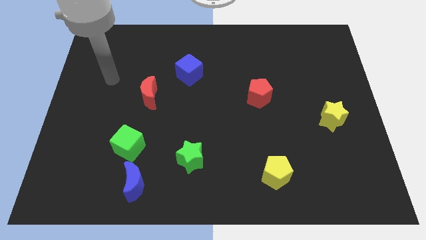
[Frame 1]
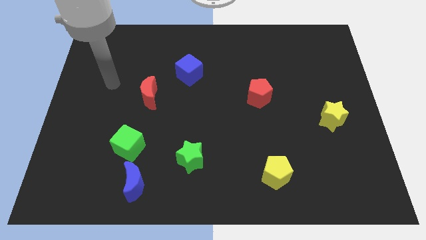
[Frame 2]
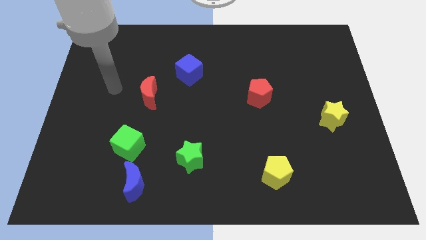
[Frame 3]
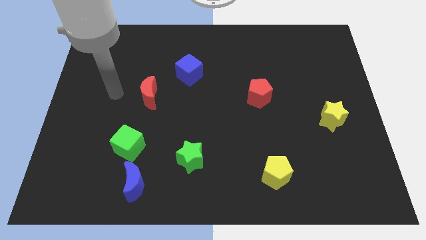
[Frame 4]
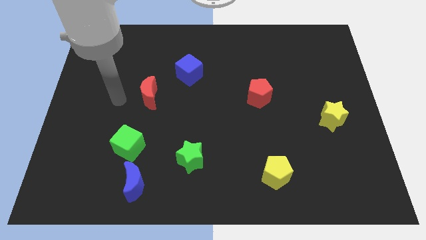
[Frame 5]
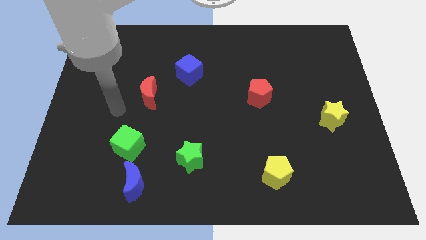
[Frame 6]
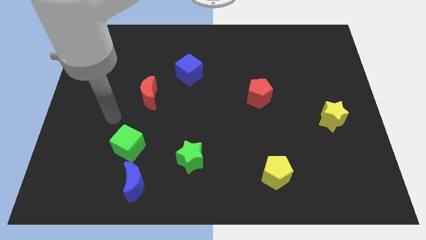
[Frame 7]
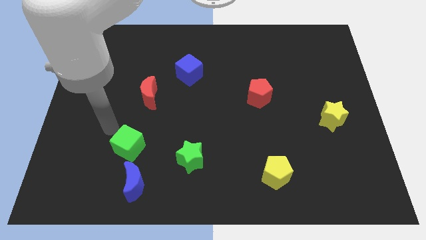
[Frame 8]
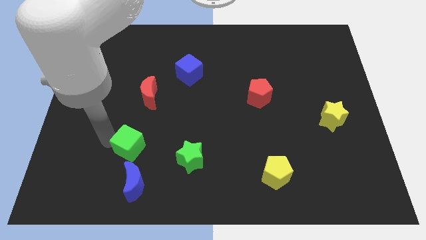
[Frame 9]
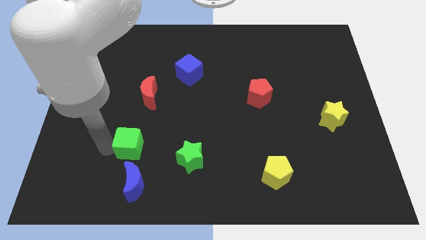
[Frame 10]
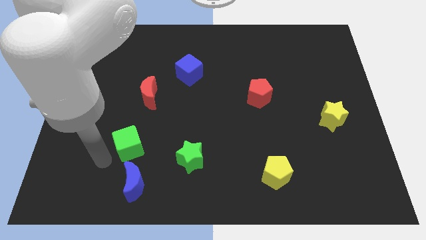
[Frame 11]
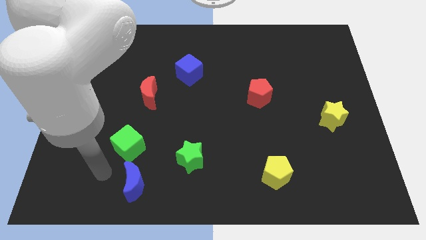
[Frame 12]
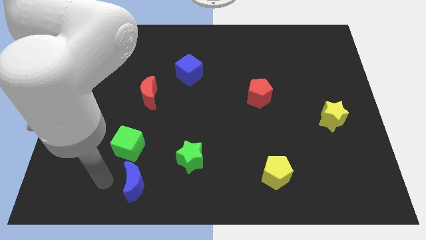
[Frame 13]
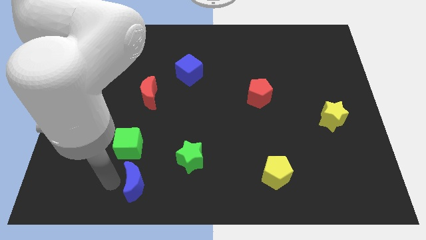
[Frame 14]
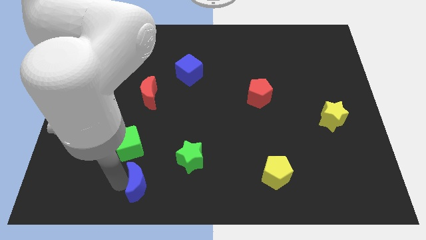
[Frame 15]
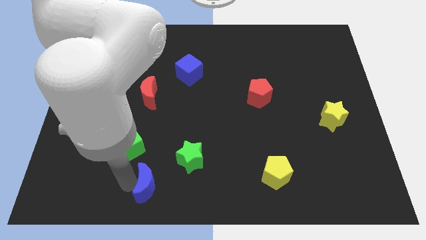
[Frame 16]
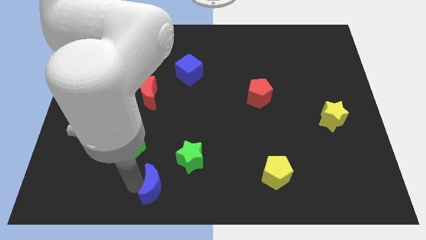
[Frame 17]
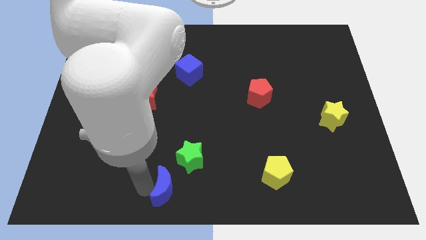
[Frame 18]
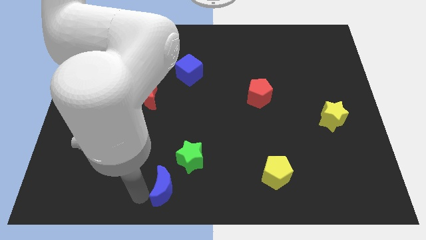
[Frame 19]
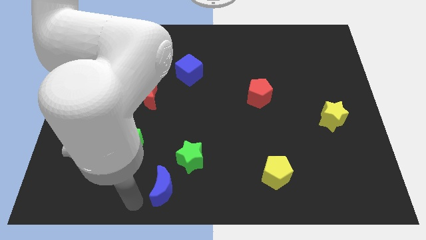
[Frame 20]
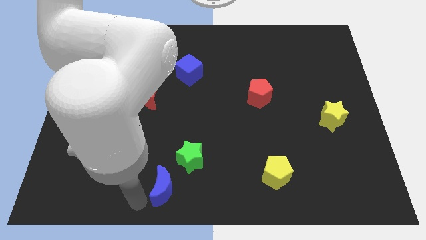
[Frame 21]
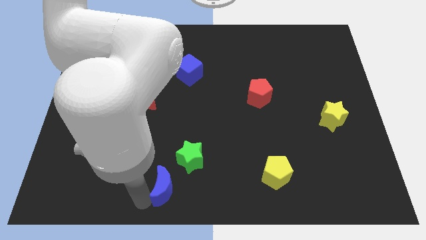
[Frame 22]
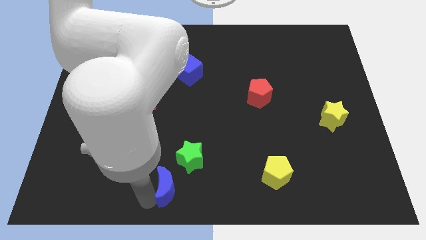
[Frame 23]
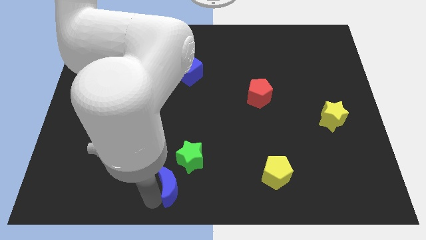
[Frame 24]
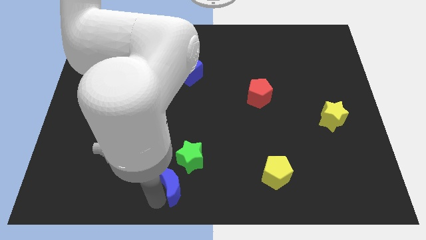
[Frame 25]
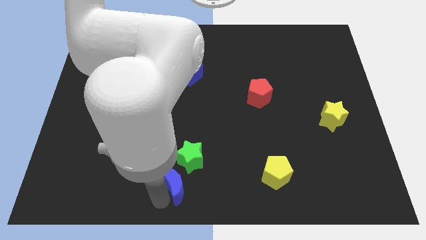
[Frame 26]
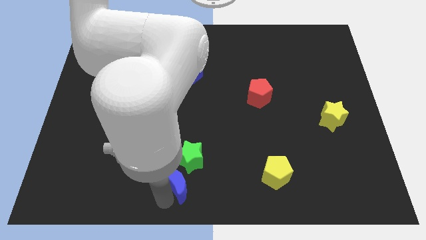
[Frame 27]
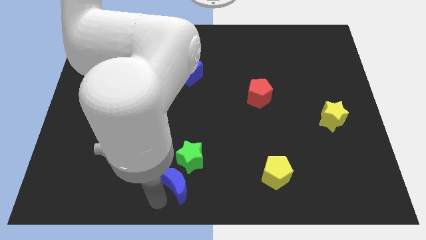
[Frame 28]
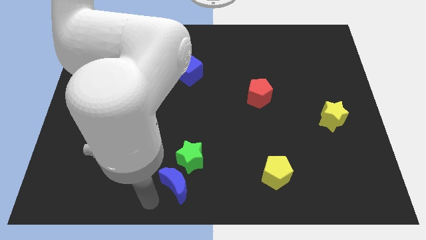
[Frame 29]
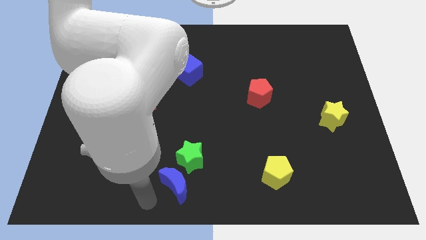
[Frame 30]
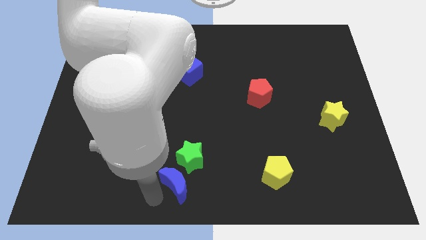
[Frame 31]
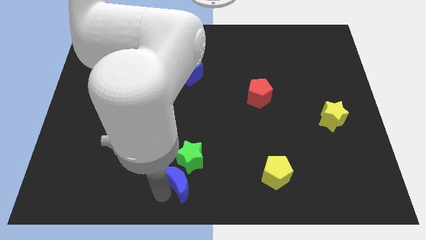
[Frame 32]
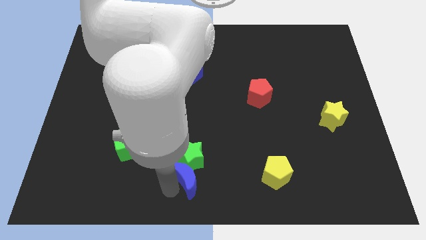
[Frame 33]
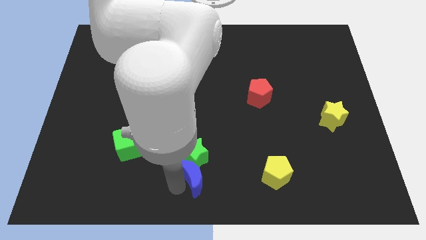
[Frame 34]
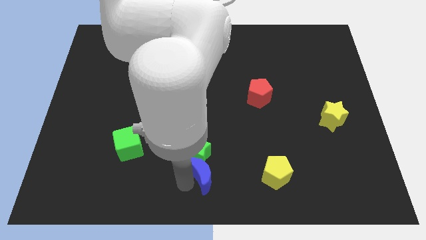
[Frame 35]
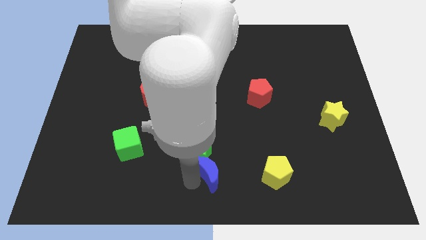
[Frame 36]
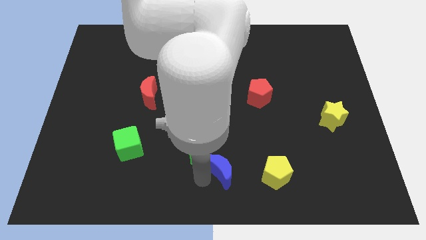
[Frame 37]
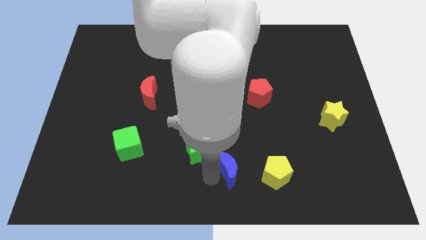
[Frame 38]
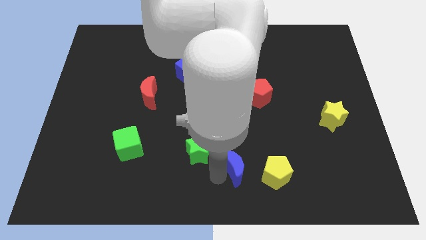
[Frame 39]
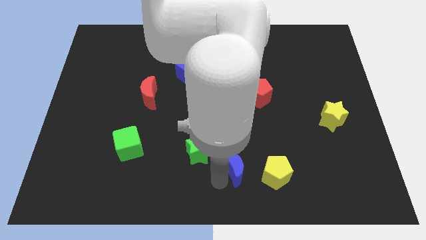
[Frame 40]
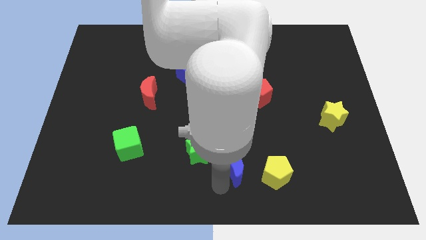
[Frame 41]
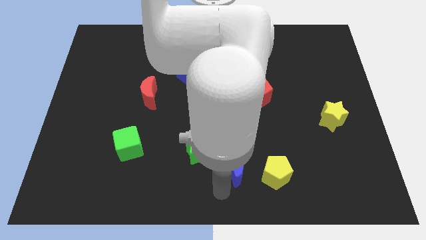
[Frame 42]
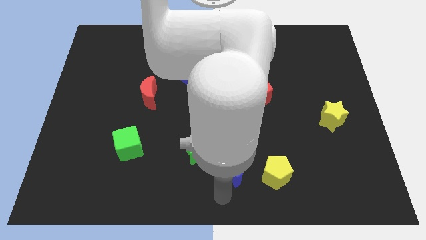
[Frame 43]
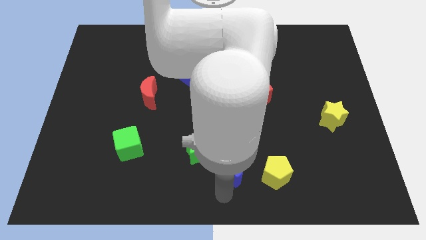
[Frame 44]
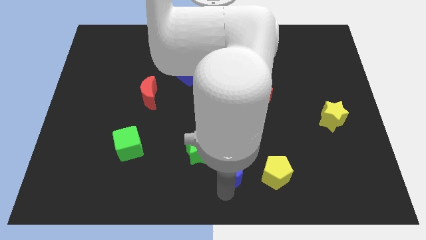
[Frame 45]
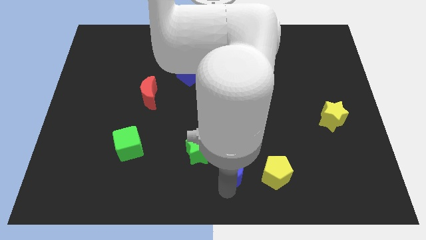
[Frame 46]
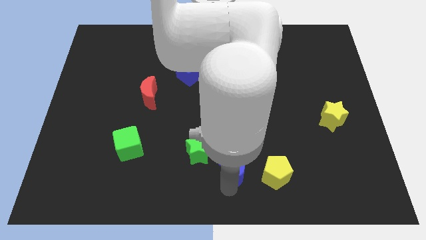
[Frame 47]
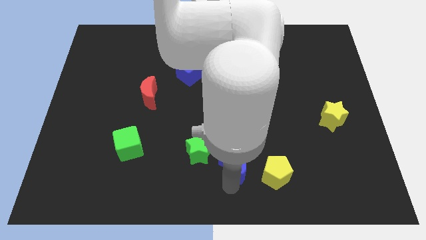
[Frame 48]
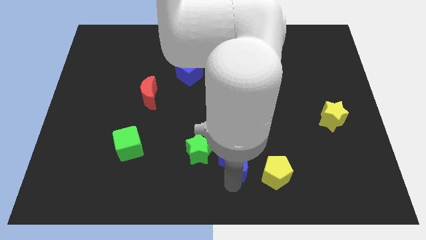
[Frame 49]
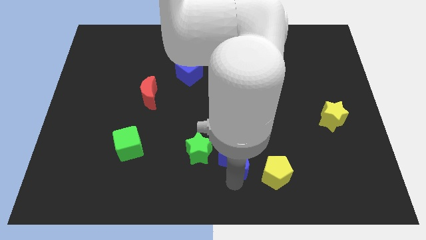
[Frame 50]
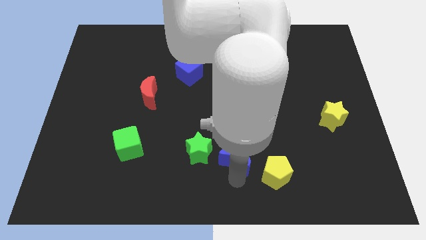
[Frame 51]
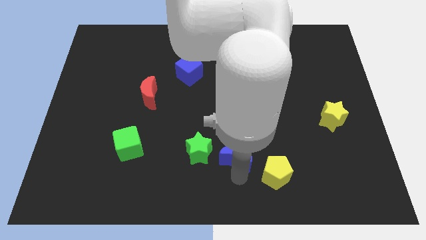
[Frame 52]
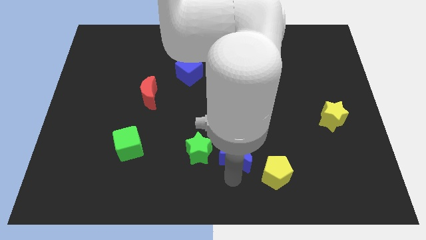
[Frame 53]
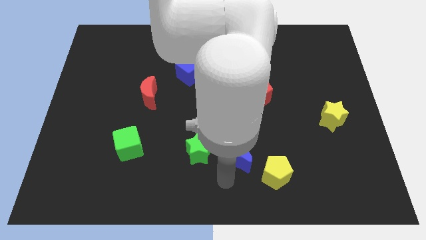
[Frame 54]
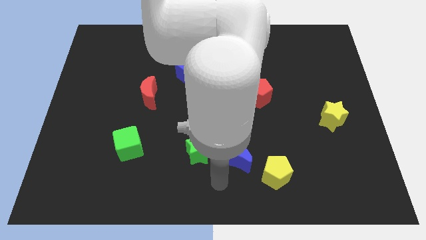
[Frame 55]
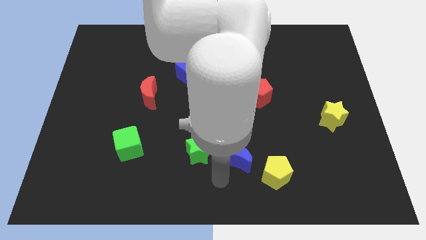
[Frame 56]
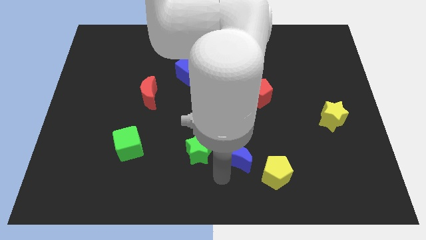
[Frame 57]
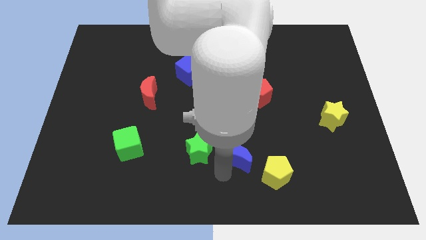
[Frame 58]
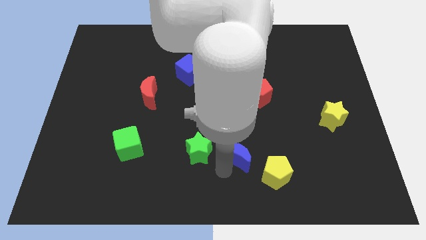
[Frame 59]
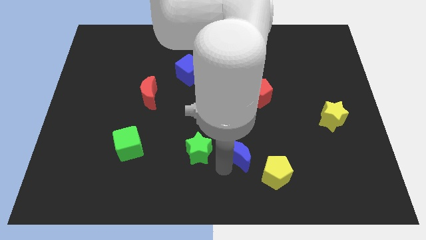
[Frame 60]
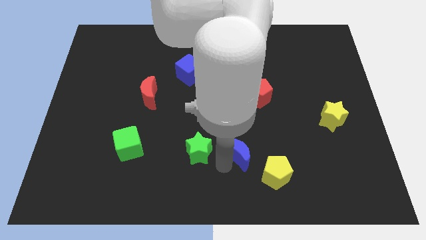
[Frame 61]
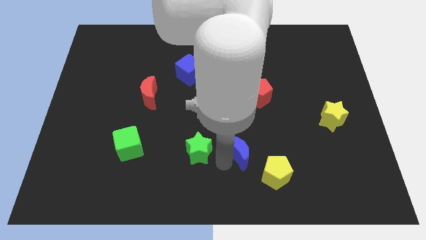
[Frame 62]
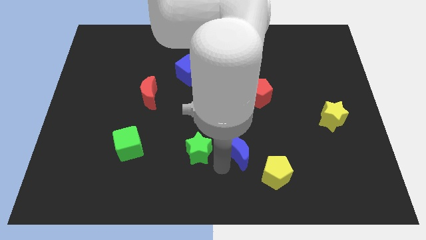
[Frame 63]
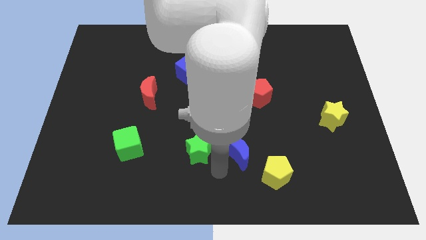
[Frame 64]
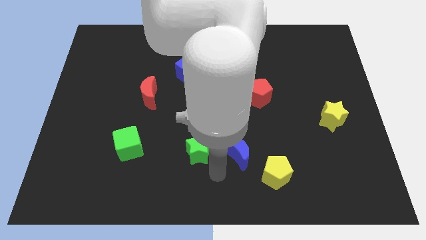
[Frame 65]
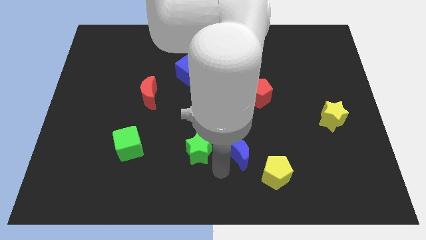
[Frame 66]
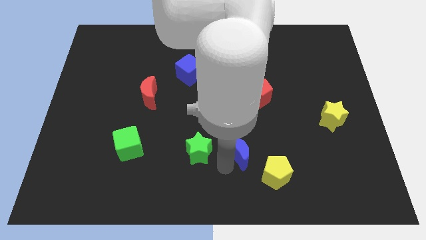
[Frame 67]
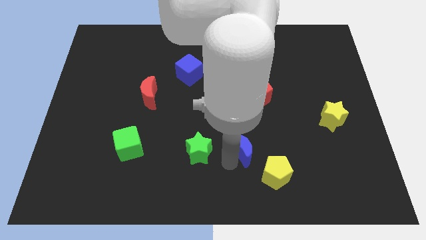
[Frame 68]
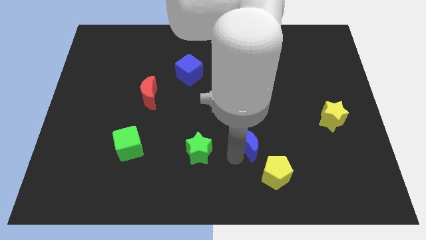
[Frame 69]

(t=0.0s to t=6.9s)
put the blue moon below the red pentagon
